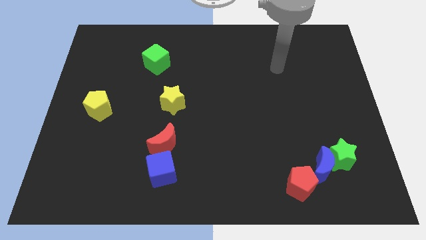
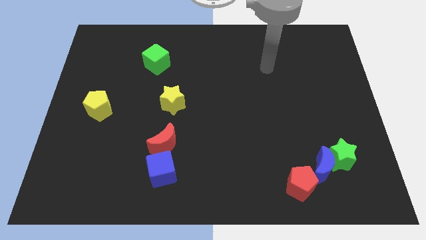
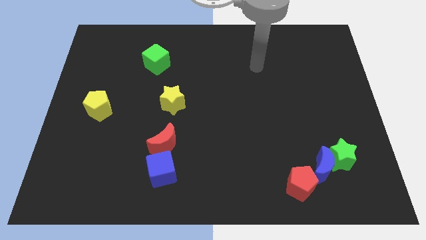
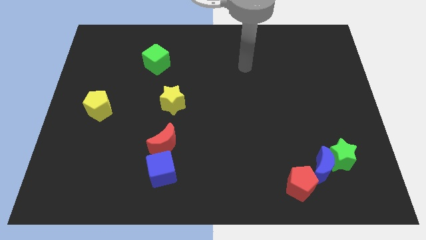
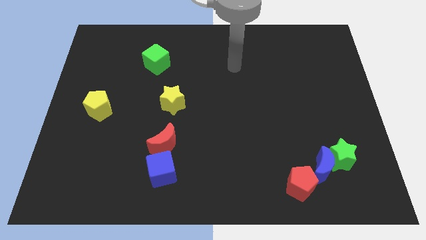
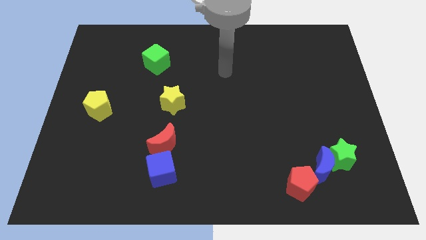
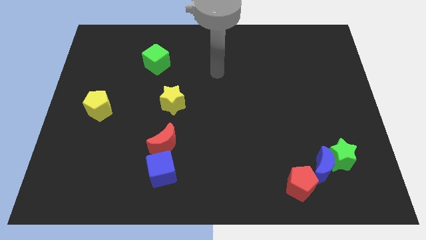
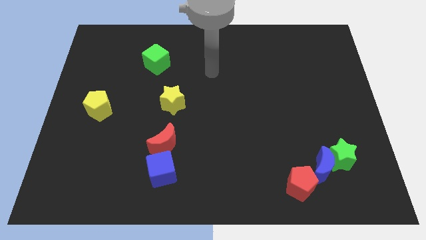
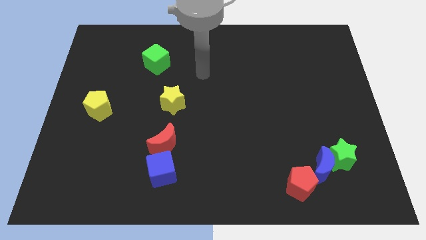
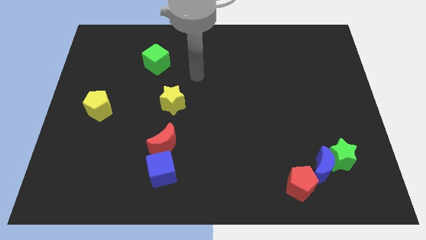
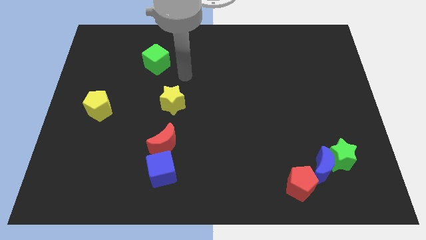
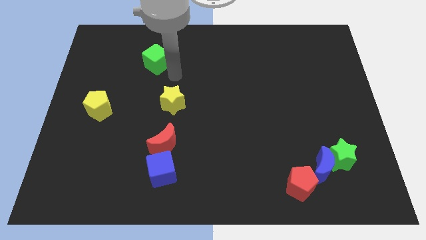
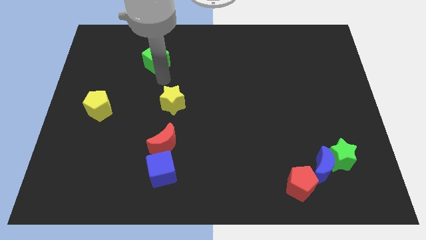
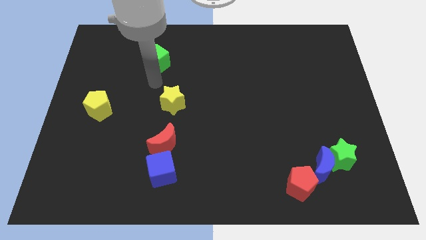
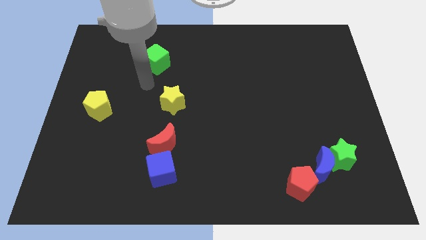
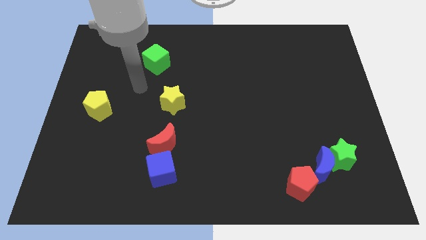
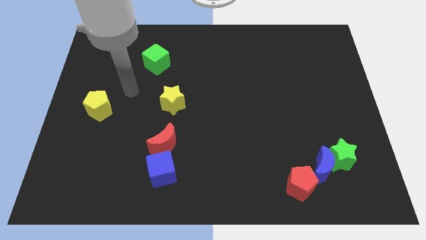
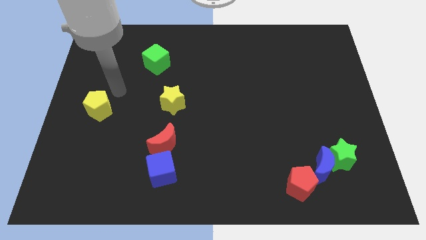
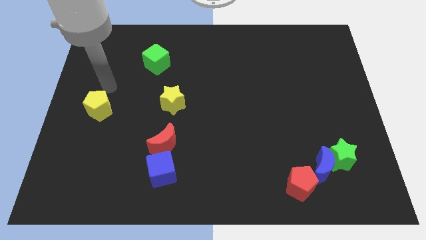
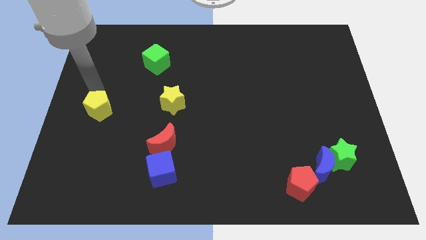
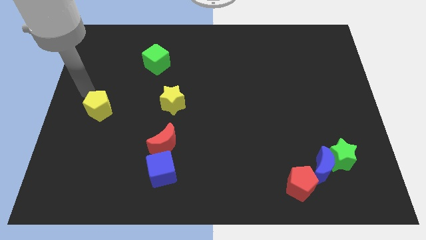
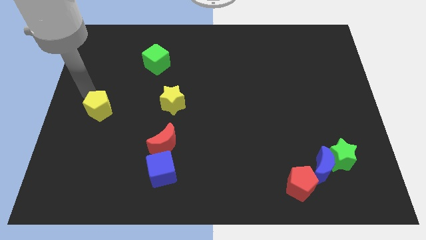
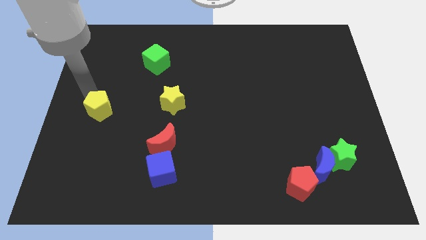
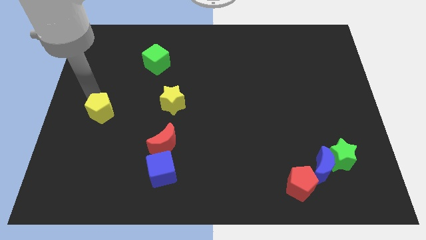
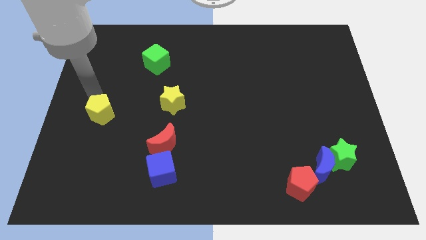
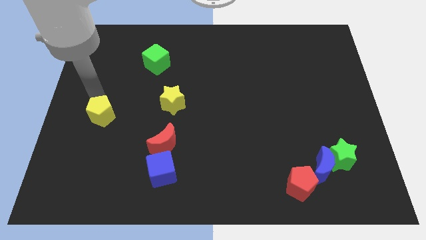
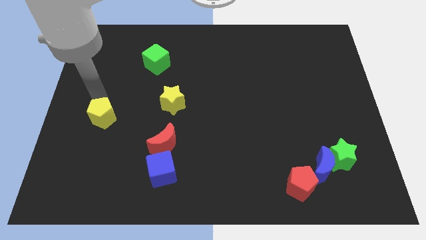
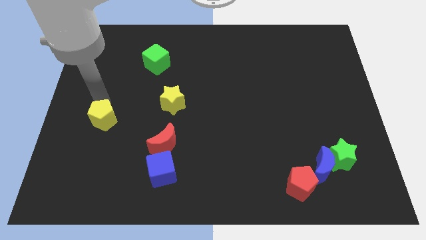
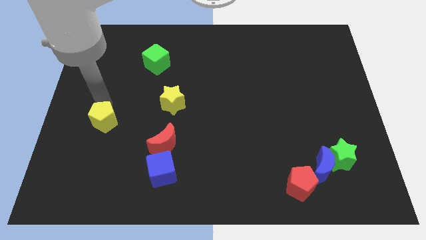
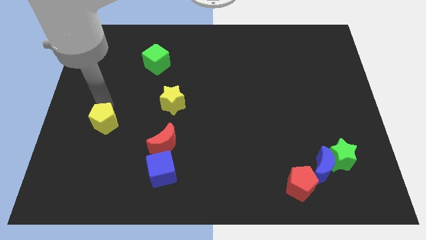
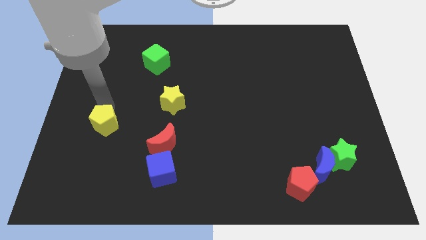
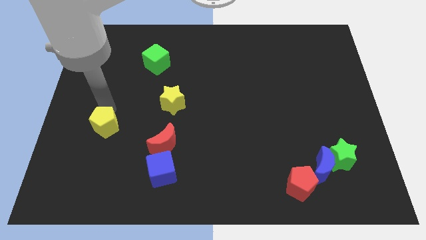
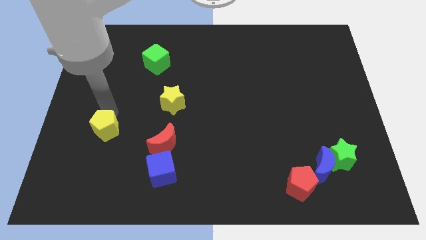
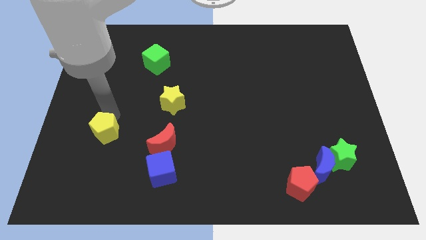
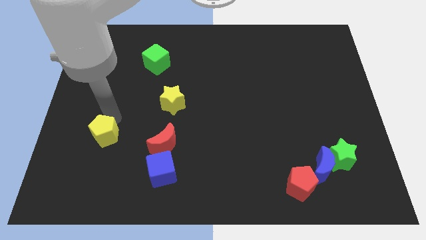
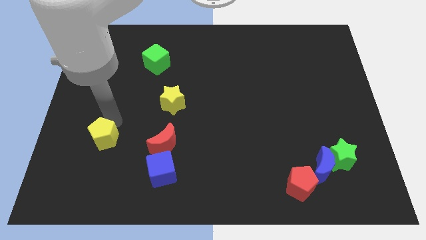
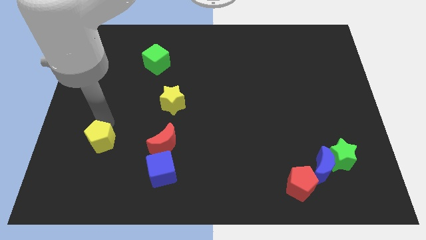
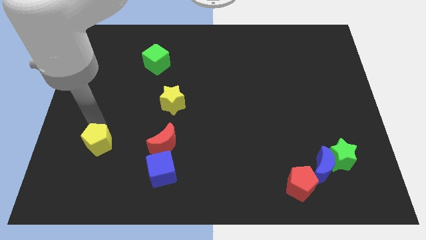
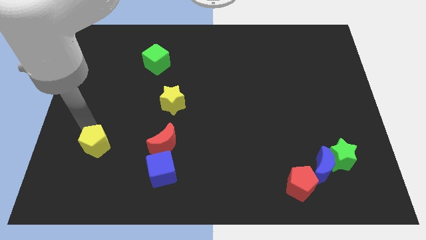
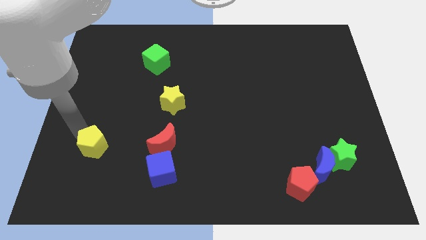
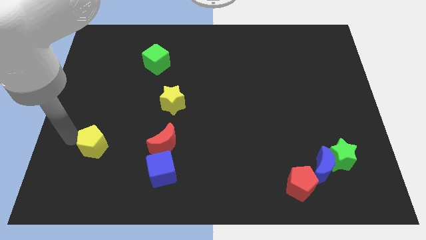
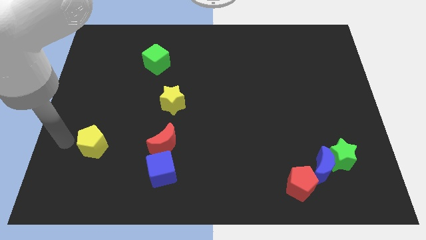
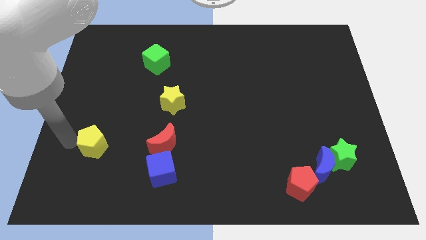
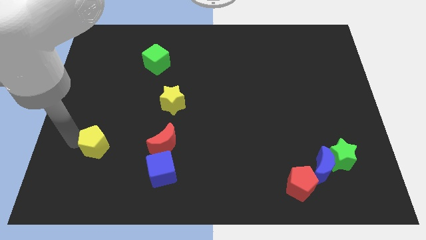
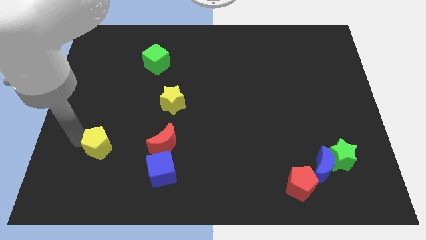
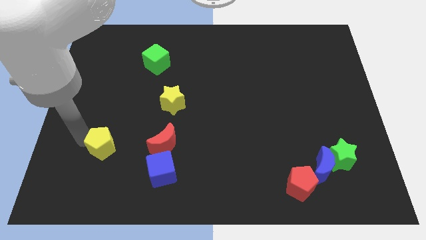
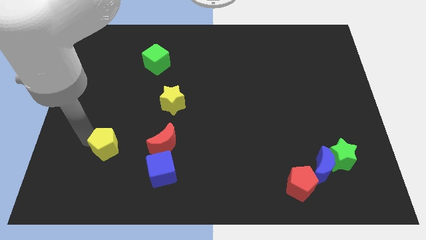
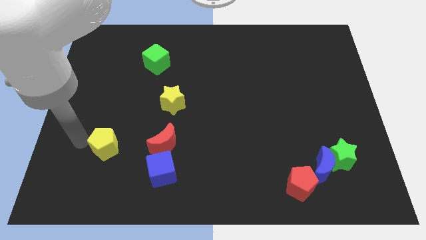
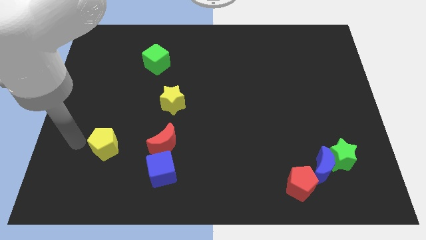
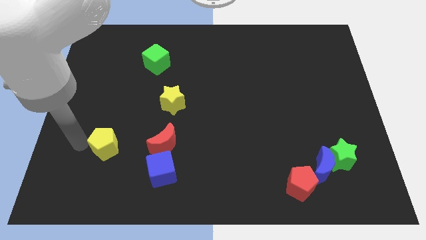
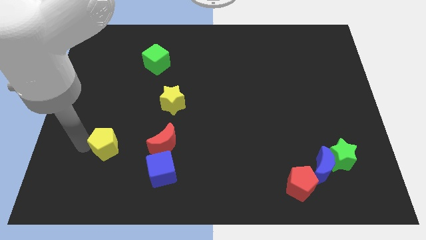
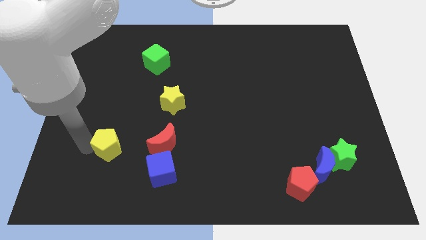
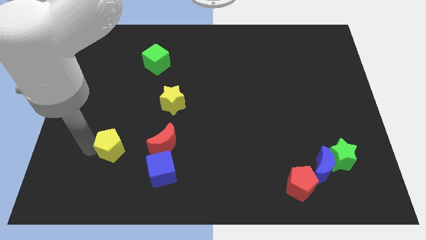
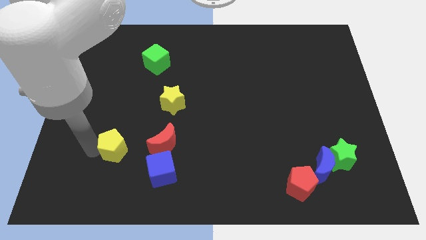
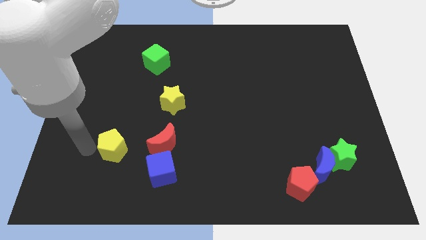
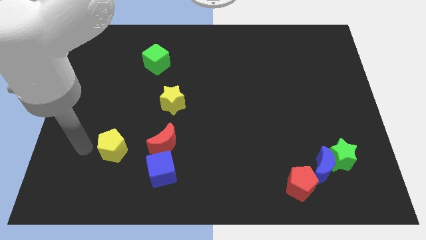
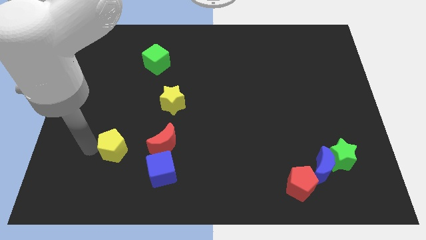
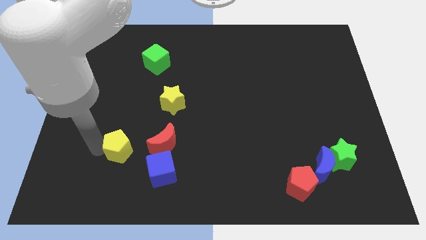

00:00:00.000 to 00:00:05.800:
move the yellow pentagon to the top left of the blue cube

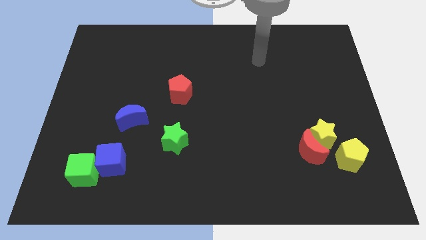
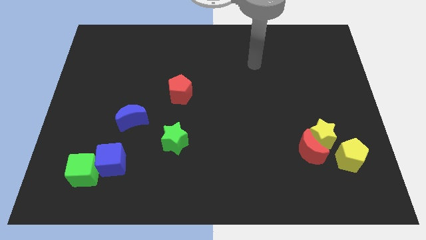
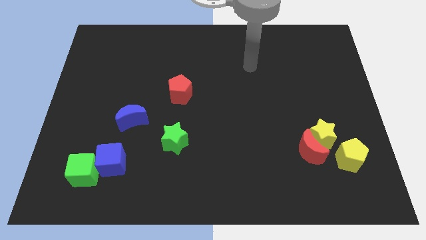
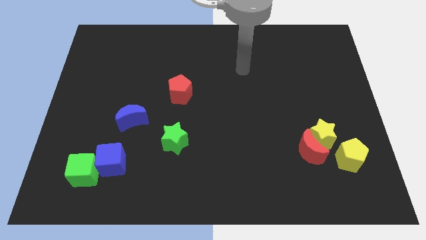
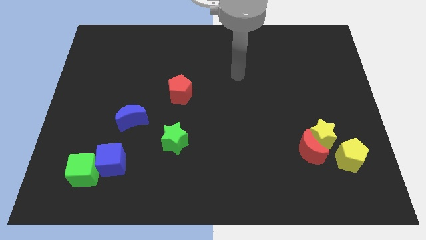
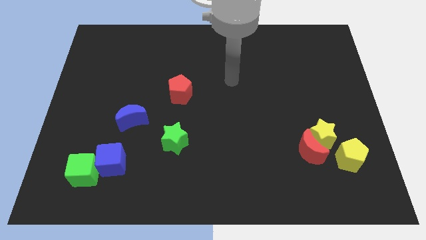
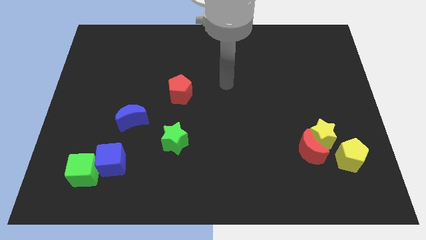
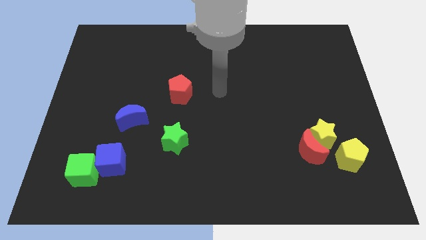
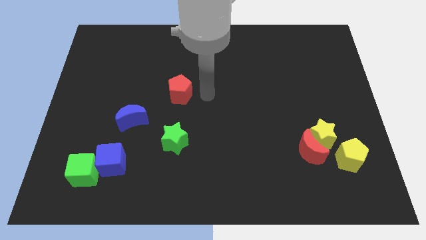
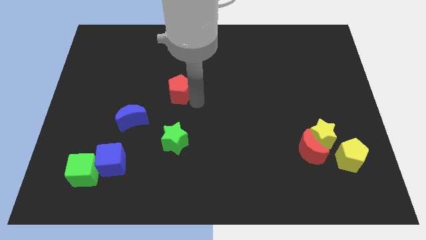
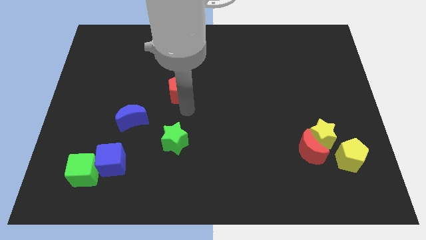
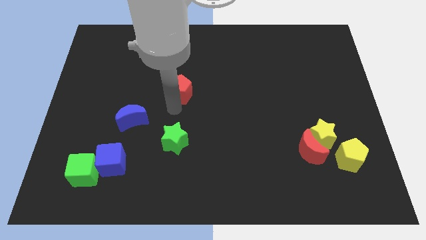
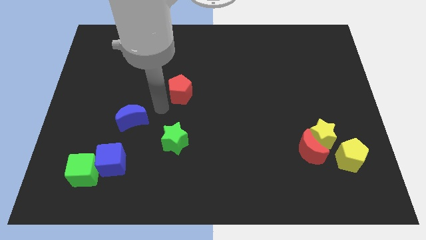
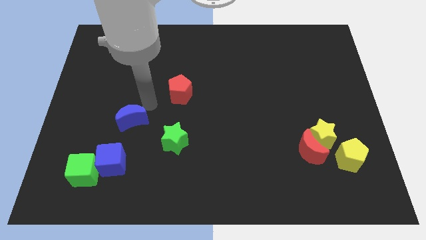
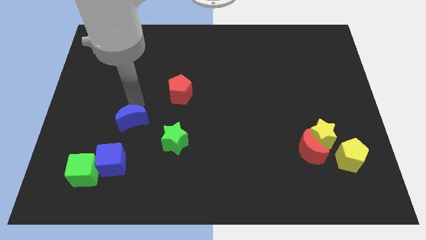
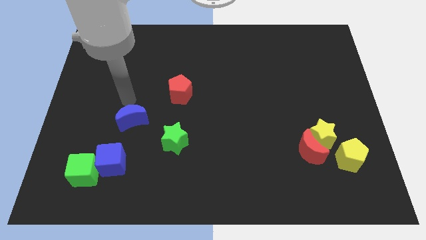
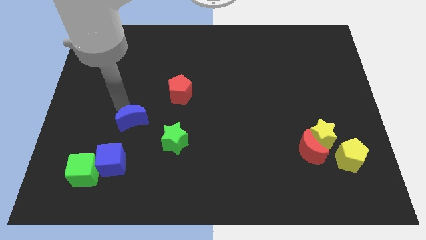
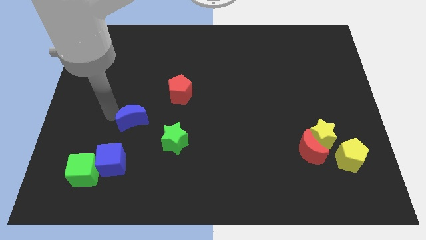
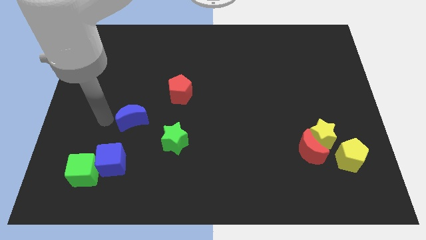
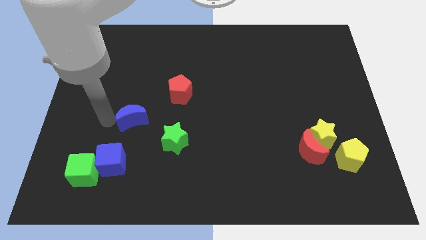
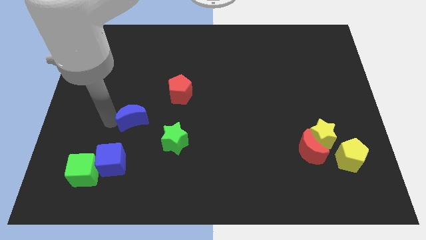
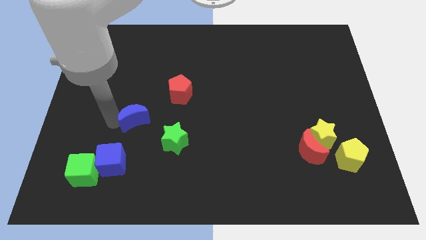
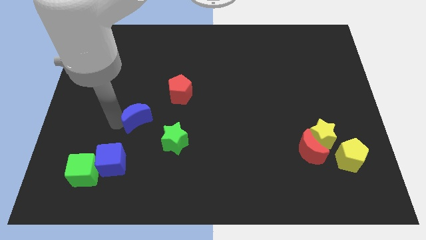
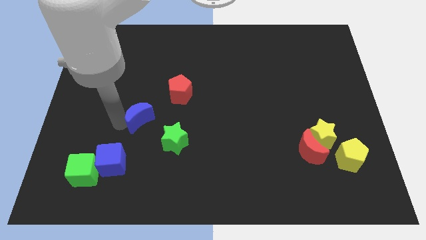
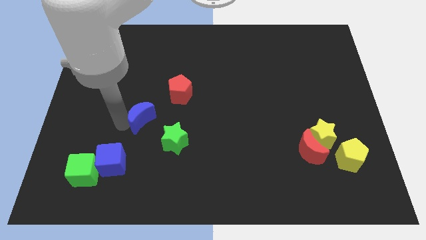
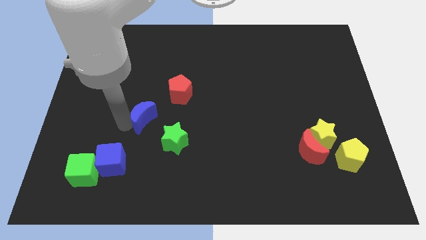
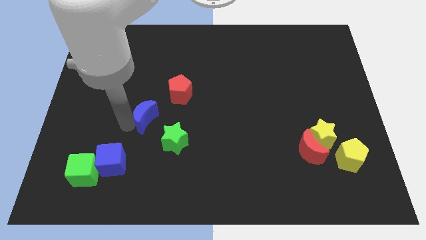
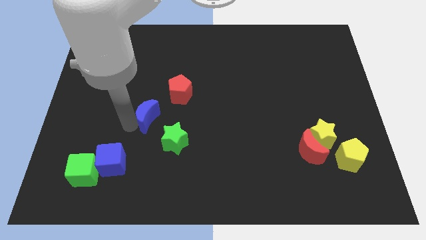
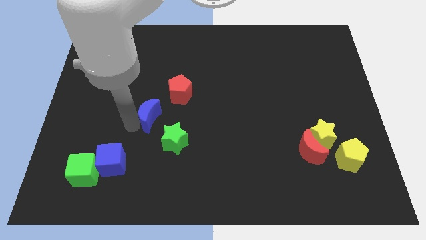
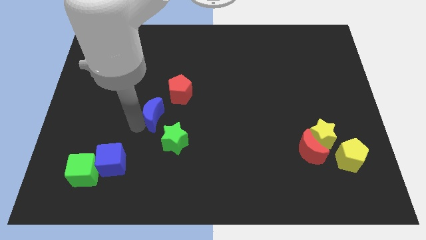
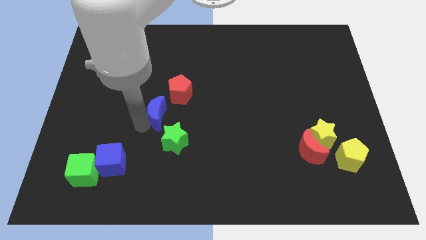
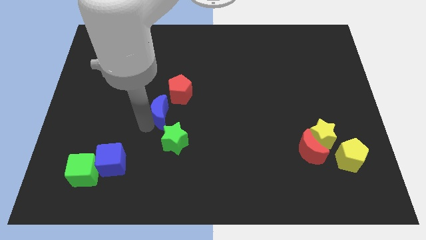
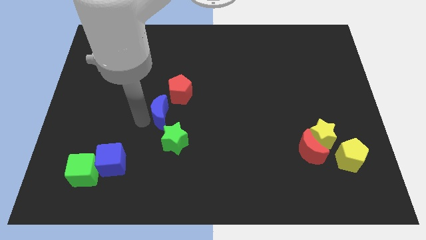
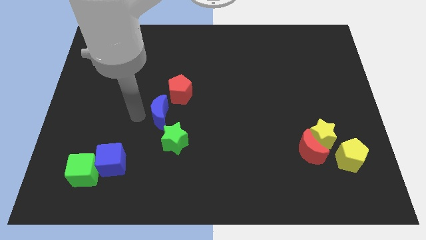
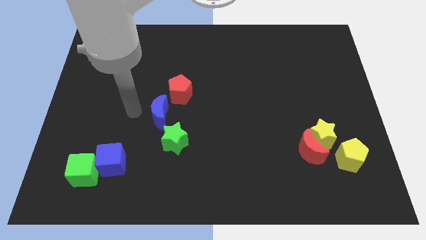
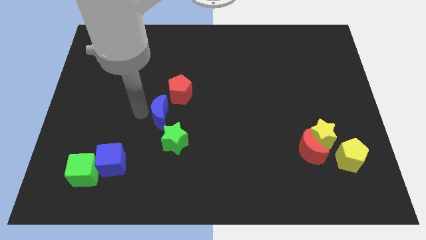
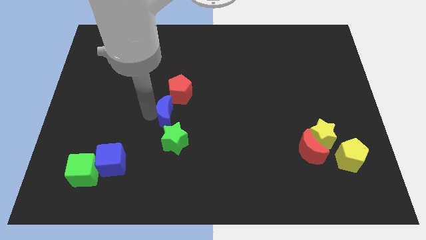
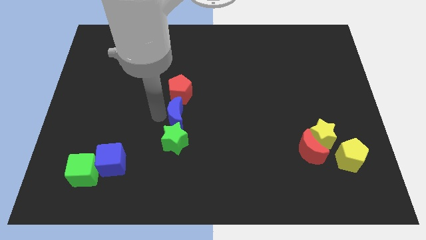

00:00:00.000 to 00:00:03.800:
put the blue moon to the top right of the green star
